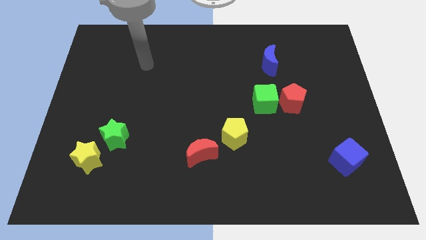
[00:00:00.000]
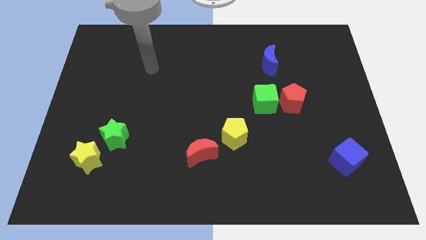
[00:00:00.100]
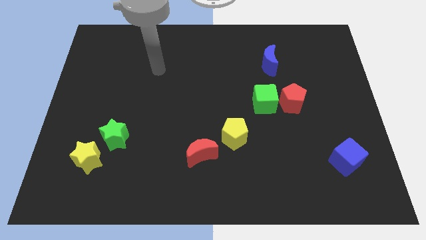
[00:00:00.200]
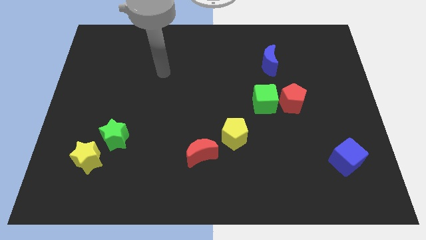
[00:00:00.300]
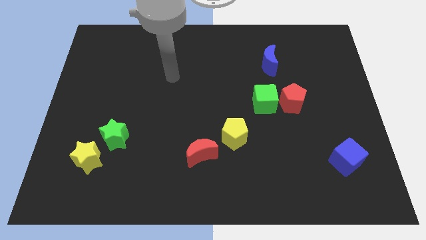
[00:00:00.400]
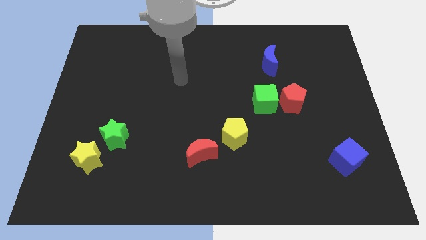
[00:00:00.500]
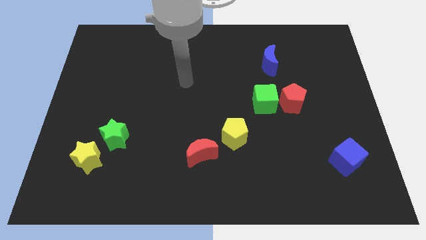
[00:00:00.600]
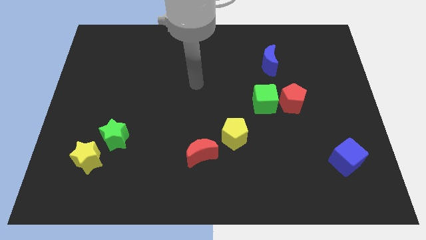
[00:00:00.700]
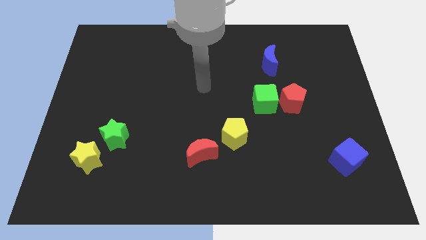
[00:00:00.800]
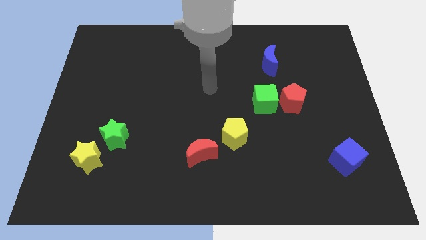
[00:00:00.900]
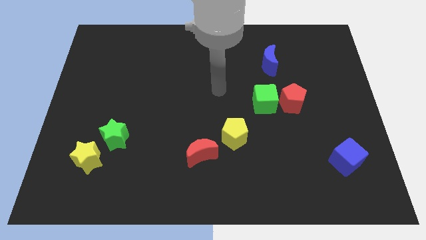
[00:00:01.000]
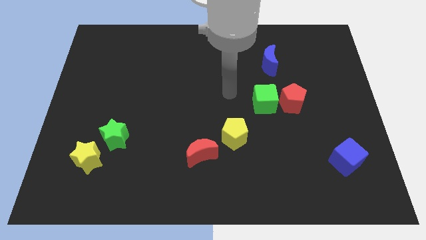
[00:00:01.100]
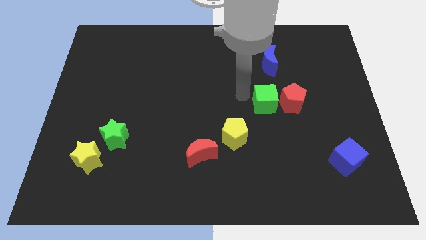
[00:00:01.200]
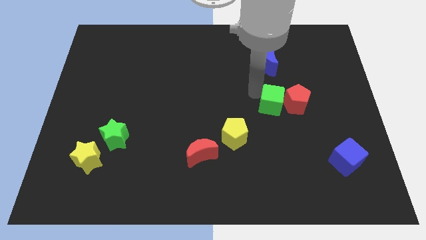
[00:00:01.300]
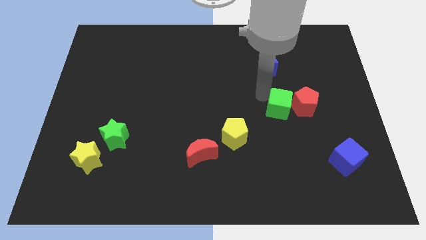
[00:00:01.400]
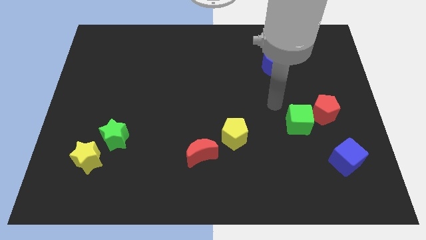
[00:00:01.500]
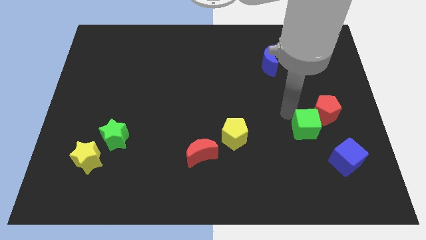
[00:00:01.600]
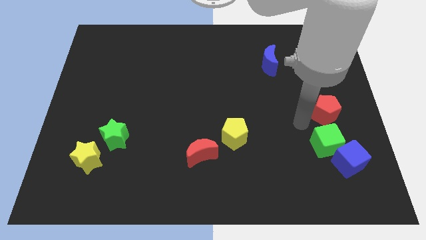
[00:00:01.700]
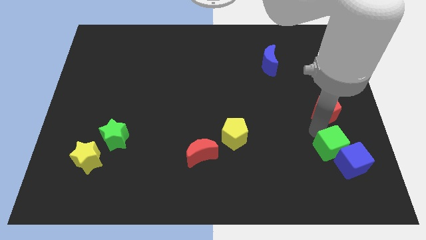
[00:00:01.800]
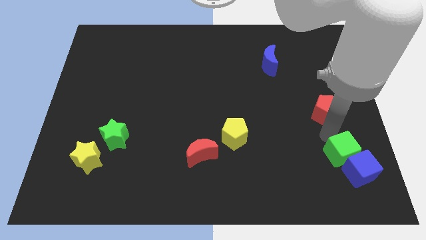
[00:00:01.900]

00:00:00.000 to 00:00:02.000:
move the red pentagon away from the green cube

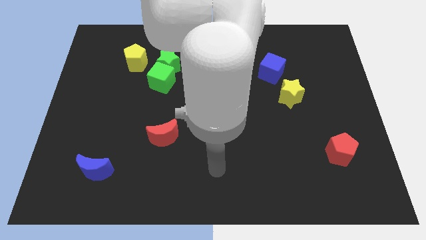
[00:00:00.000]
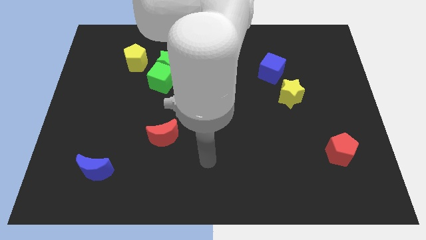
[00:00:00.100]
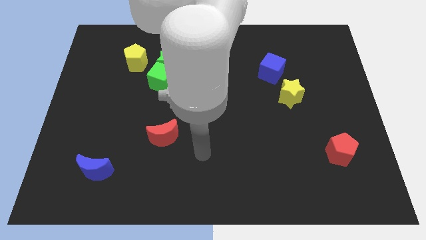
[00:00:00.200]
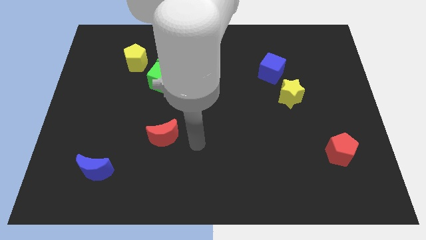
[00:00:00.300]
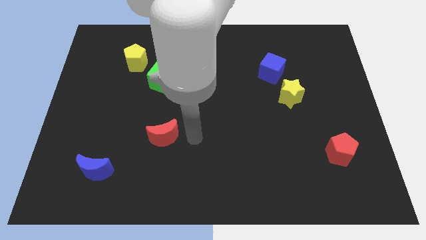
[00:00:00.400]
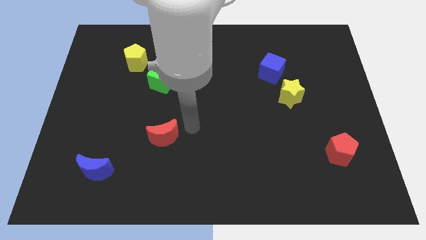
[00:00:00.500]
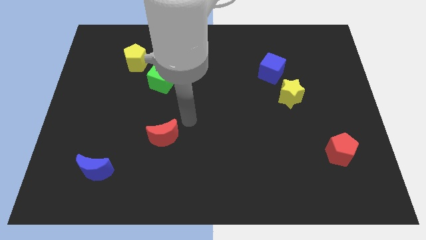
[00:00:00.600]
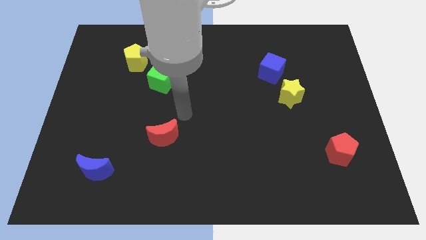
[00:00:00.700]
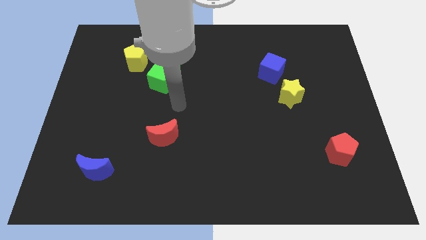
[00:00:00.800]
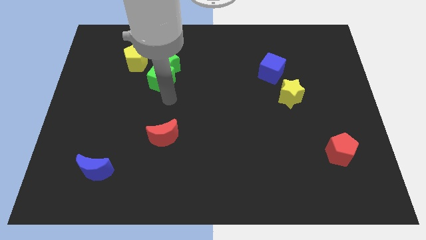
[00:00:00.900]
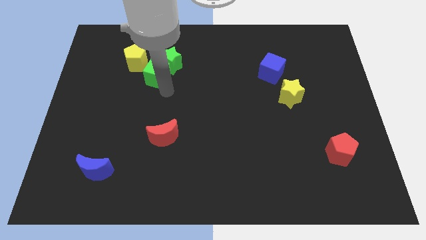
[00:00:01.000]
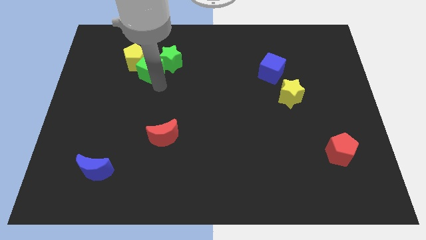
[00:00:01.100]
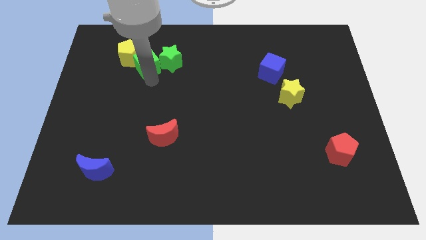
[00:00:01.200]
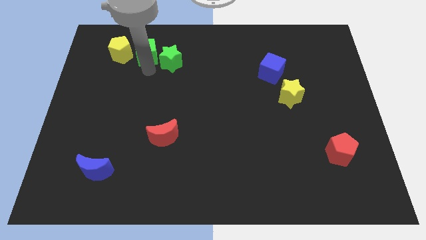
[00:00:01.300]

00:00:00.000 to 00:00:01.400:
move the green star away from the green cube and yellow pentagon

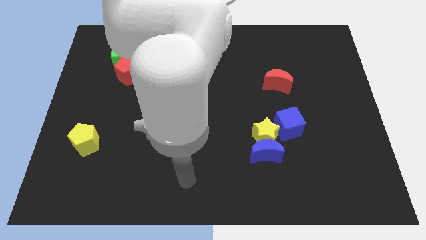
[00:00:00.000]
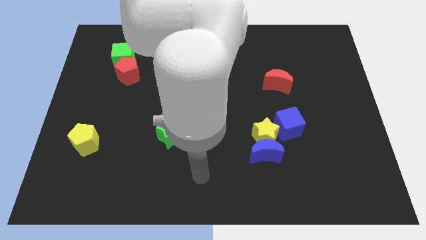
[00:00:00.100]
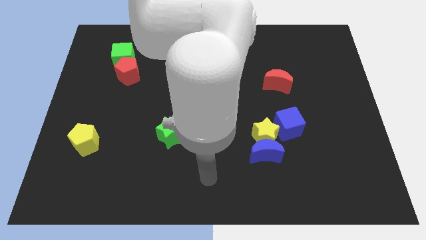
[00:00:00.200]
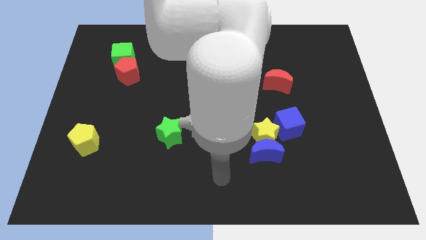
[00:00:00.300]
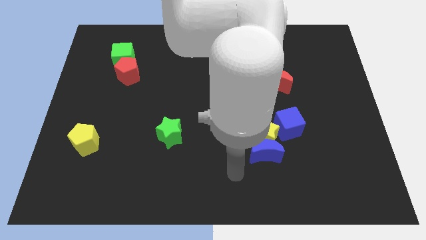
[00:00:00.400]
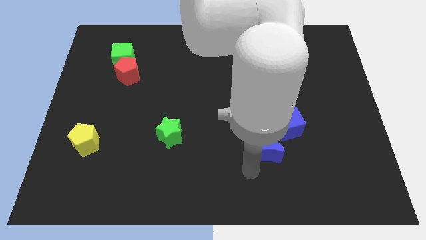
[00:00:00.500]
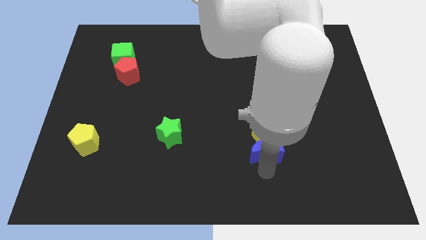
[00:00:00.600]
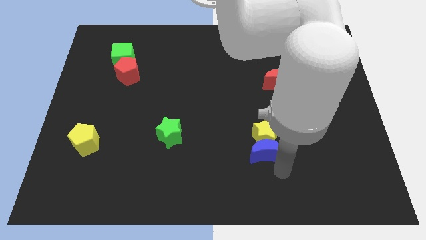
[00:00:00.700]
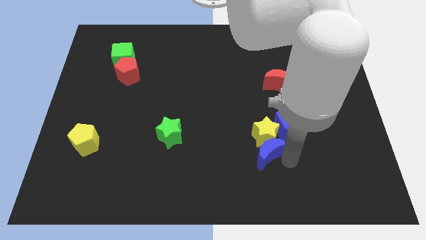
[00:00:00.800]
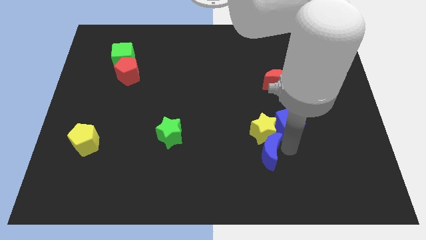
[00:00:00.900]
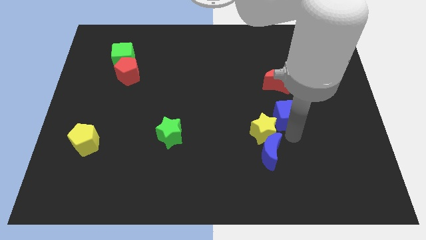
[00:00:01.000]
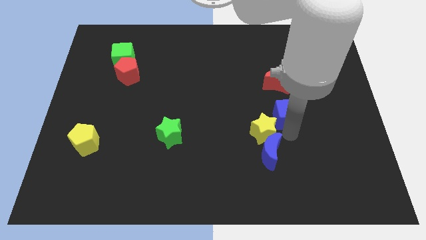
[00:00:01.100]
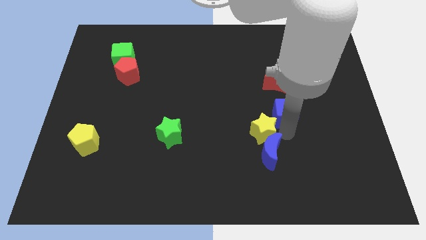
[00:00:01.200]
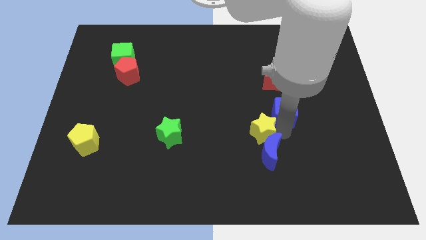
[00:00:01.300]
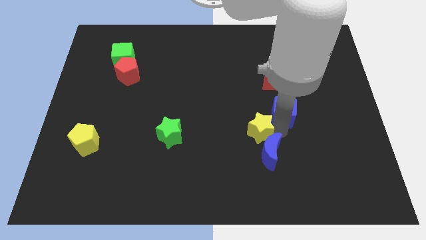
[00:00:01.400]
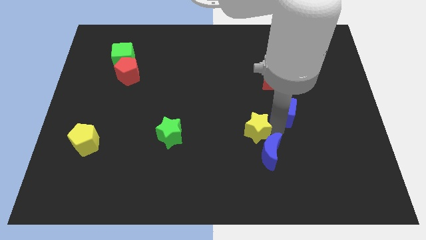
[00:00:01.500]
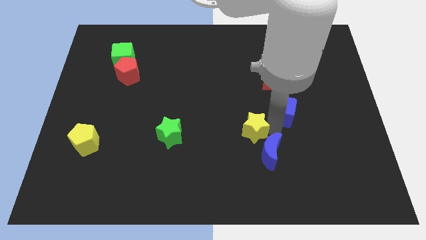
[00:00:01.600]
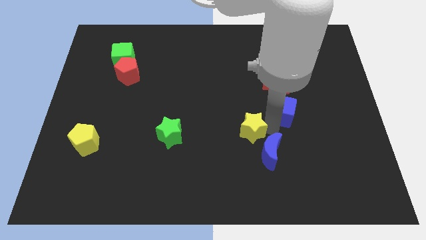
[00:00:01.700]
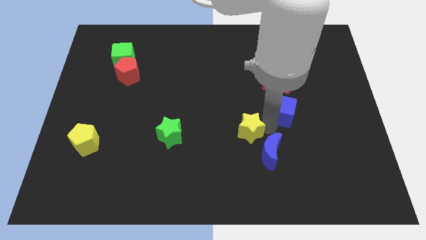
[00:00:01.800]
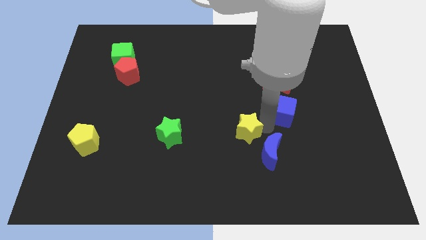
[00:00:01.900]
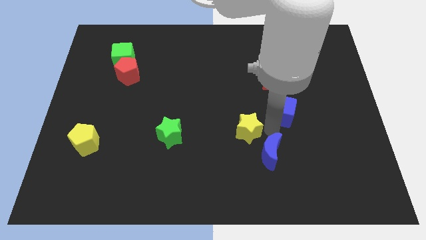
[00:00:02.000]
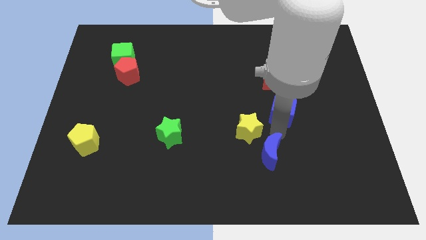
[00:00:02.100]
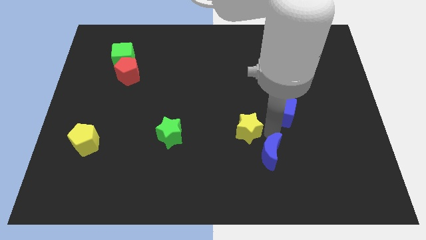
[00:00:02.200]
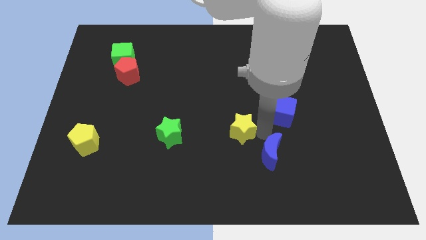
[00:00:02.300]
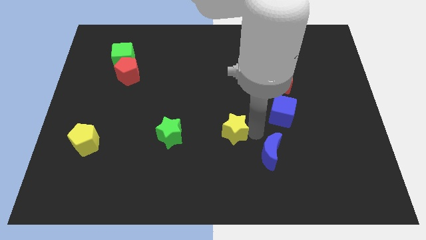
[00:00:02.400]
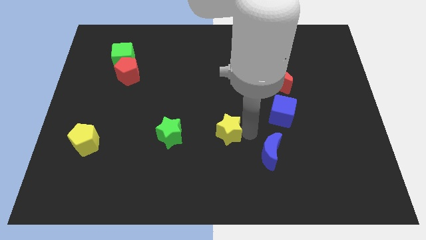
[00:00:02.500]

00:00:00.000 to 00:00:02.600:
pull the yellow star apart from the blue moon and blue cube

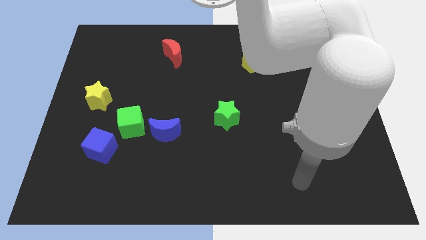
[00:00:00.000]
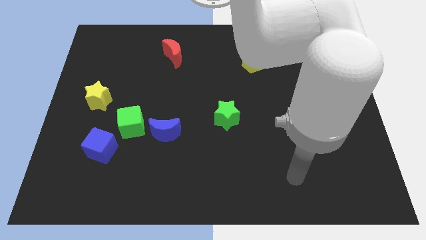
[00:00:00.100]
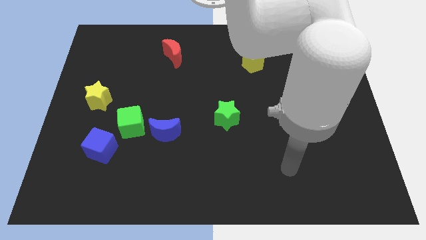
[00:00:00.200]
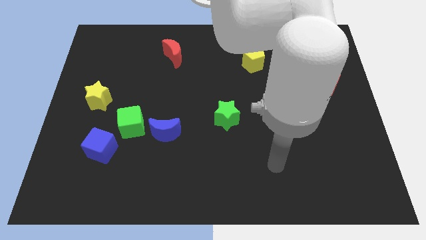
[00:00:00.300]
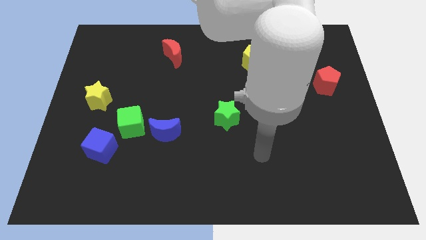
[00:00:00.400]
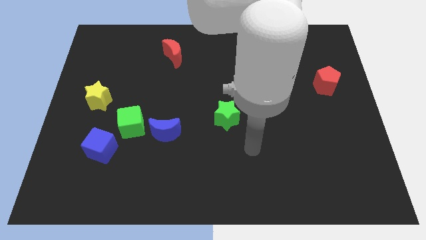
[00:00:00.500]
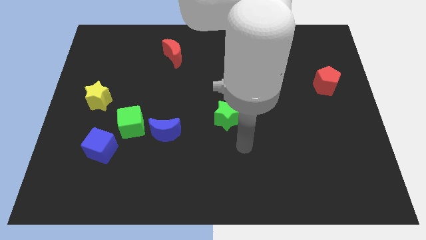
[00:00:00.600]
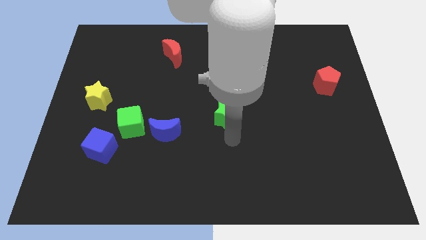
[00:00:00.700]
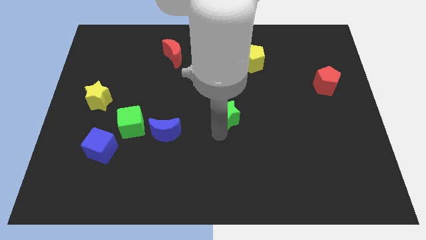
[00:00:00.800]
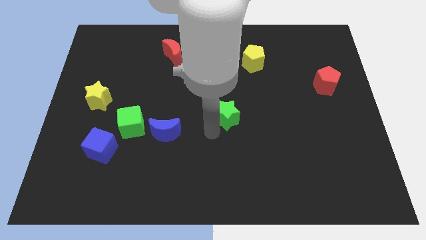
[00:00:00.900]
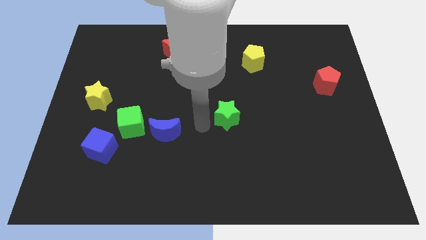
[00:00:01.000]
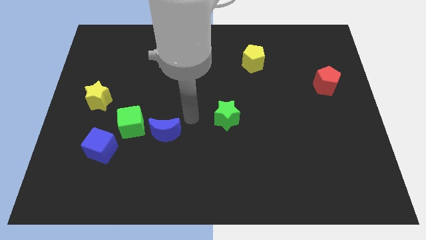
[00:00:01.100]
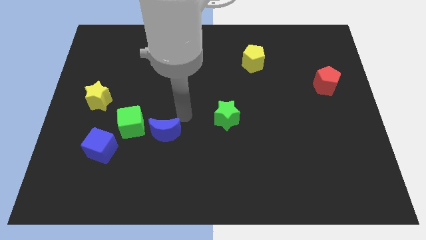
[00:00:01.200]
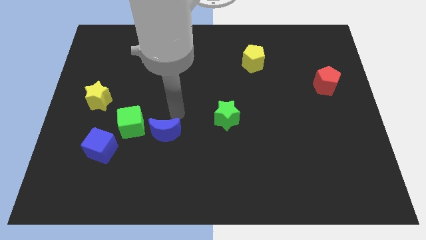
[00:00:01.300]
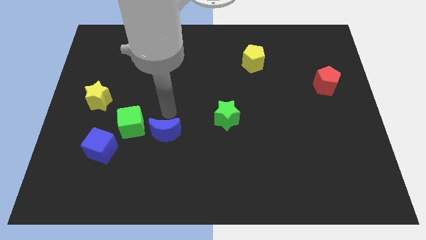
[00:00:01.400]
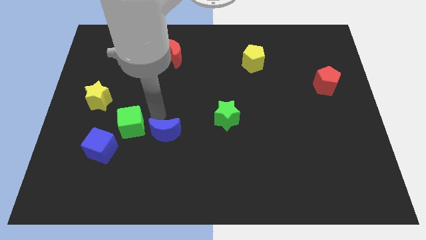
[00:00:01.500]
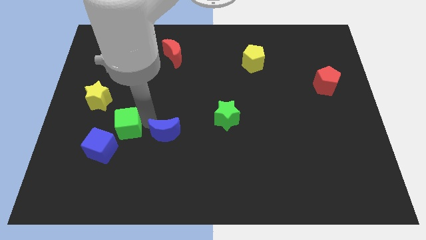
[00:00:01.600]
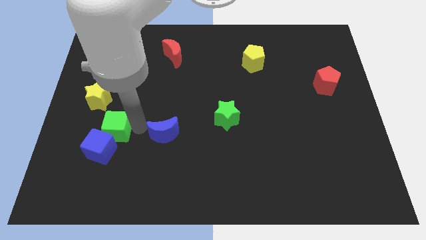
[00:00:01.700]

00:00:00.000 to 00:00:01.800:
separate the blue moon from the green cube

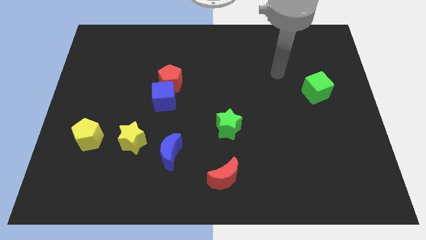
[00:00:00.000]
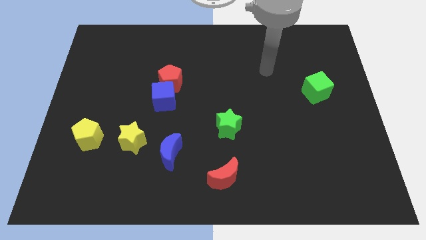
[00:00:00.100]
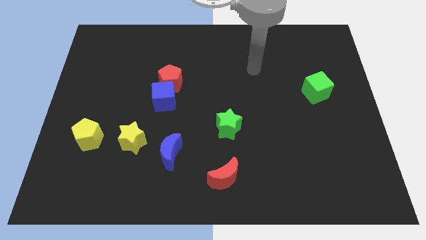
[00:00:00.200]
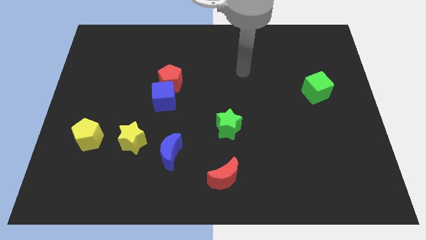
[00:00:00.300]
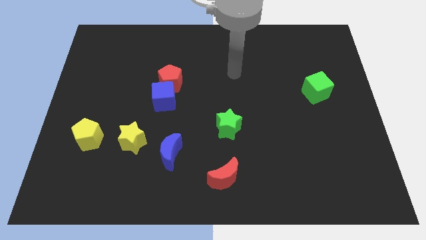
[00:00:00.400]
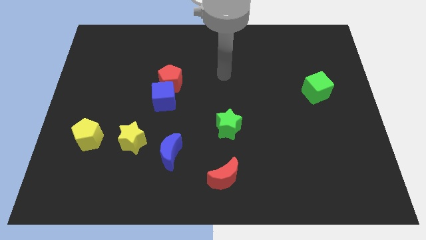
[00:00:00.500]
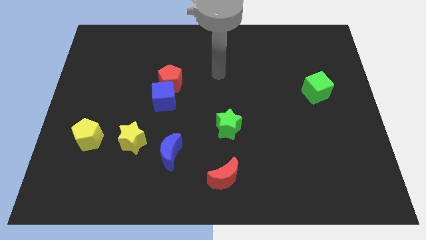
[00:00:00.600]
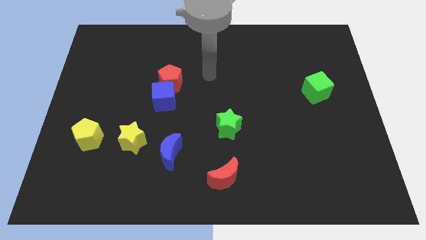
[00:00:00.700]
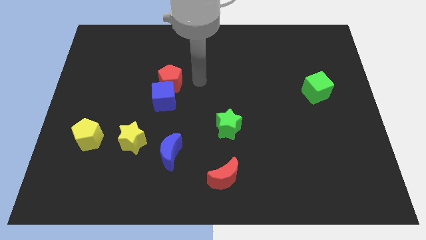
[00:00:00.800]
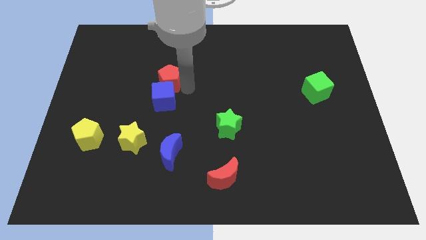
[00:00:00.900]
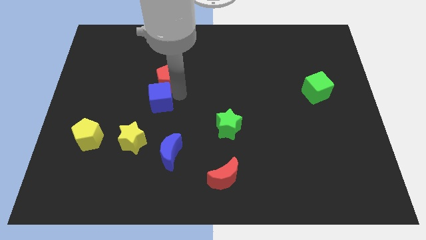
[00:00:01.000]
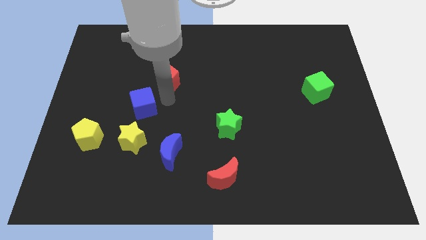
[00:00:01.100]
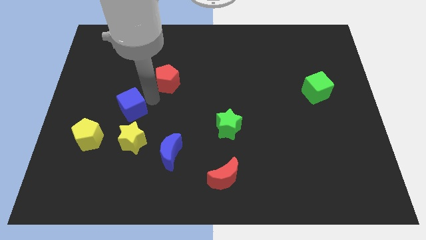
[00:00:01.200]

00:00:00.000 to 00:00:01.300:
separate the red pentagon from the blue cube
